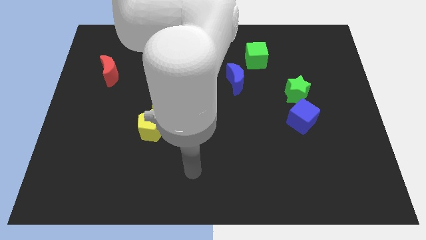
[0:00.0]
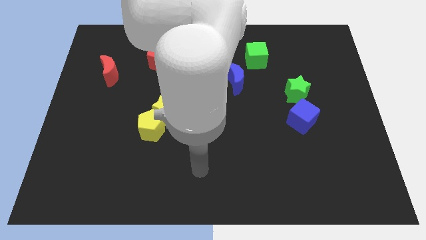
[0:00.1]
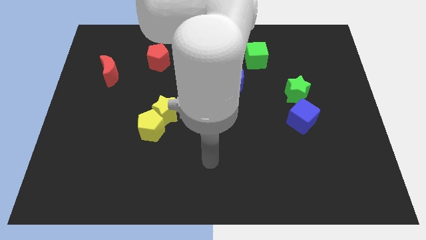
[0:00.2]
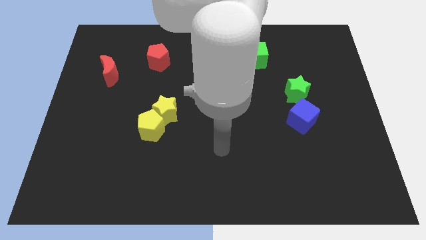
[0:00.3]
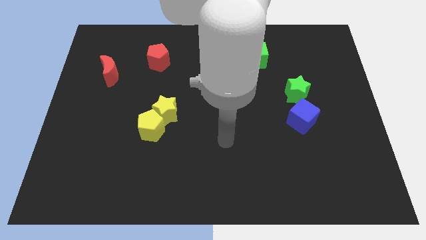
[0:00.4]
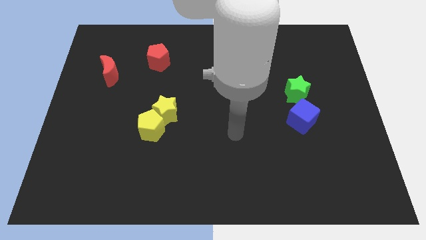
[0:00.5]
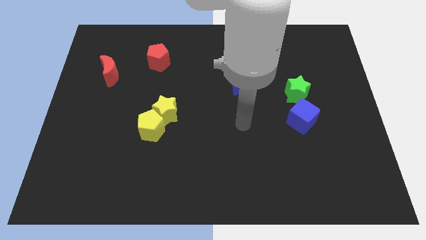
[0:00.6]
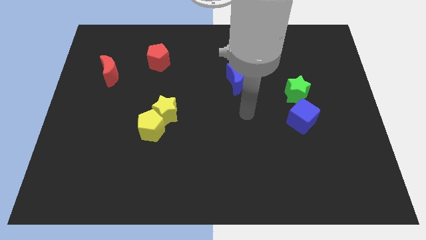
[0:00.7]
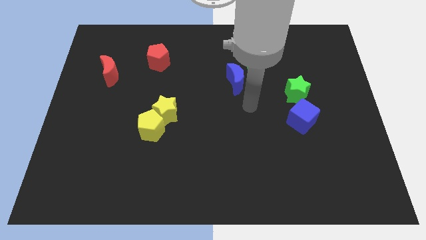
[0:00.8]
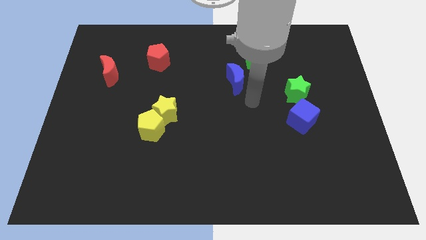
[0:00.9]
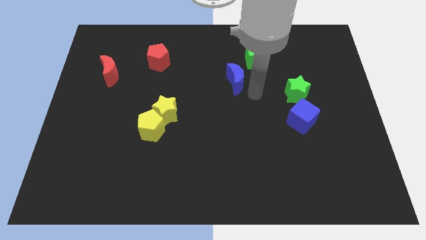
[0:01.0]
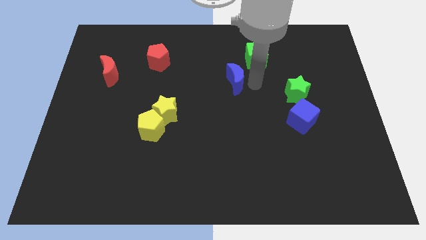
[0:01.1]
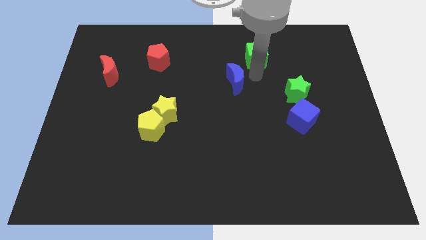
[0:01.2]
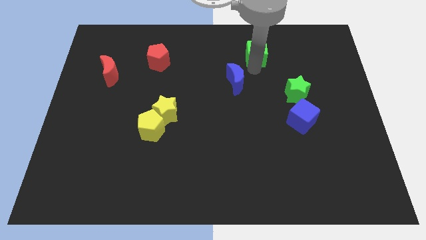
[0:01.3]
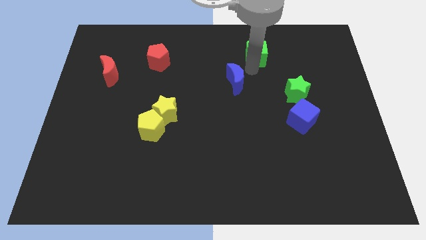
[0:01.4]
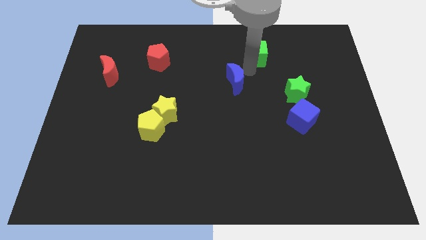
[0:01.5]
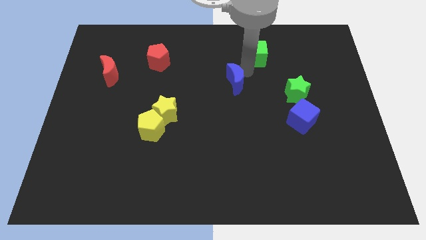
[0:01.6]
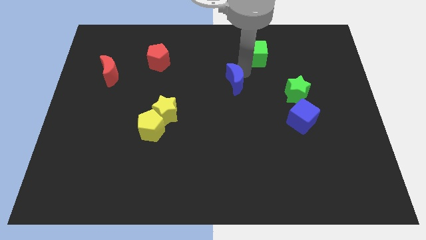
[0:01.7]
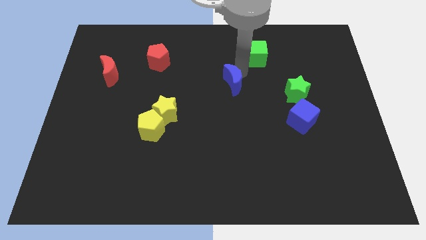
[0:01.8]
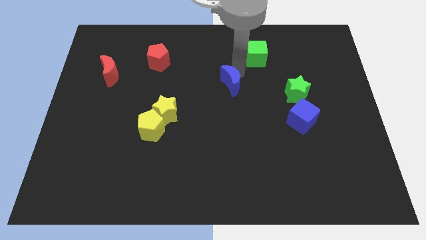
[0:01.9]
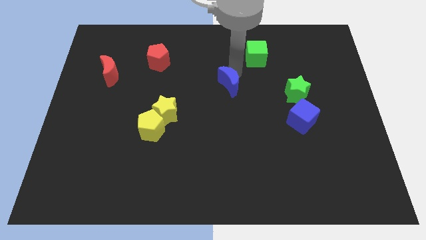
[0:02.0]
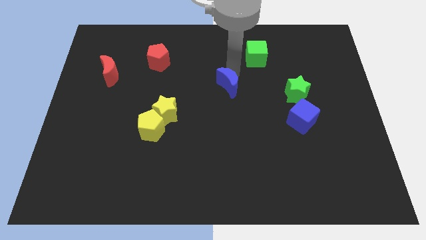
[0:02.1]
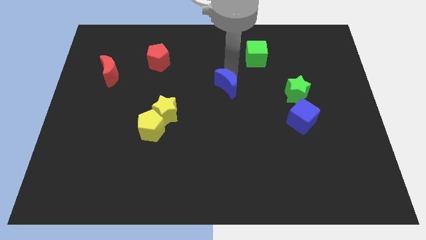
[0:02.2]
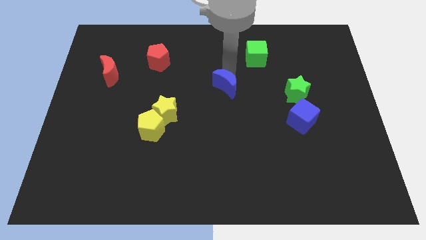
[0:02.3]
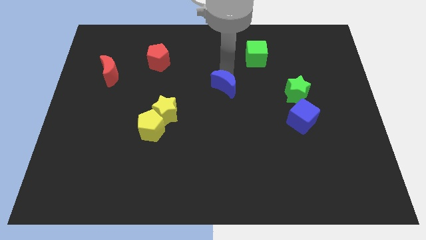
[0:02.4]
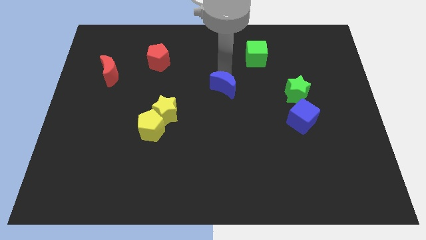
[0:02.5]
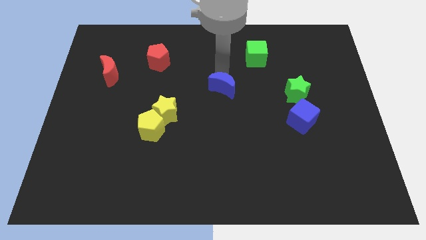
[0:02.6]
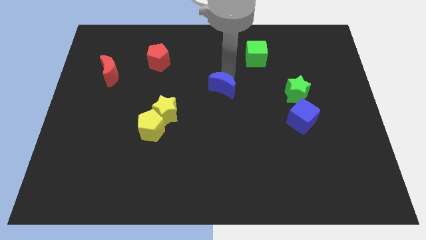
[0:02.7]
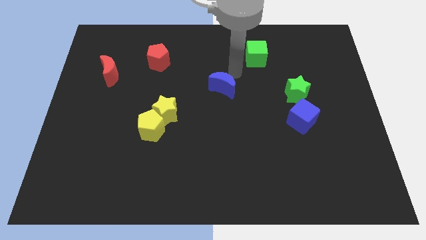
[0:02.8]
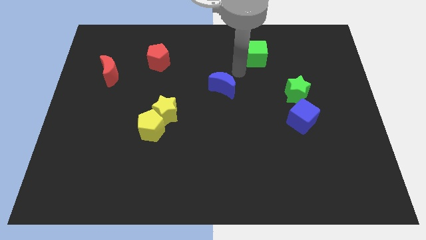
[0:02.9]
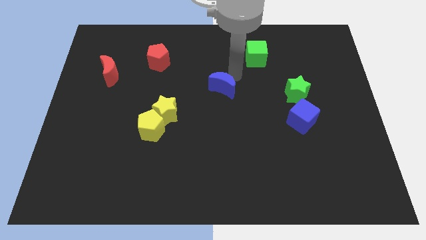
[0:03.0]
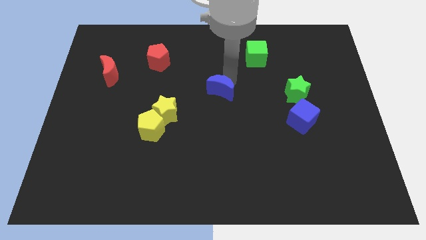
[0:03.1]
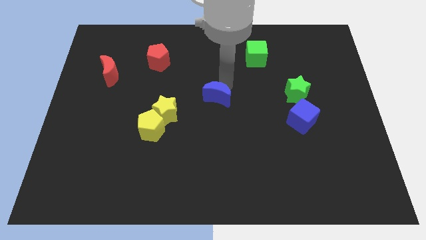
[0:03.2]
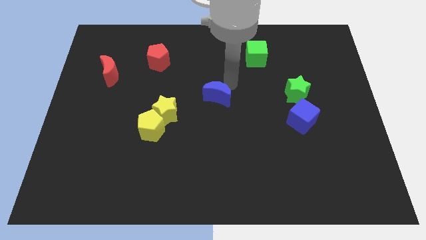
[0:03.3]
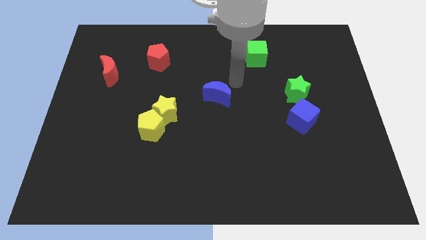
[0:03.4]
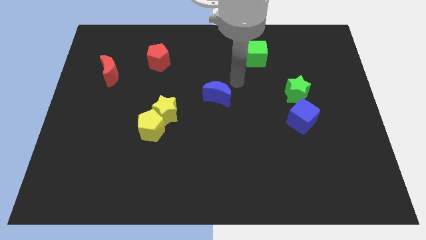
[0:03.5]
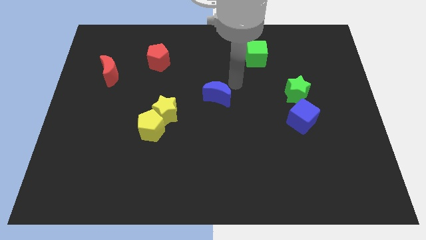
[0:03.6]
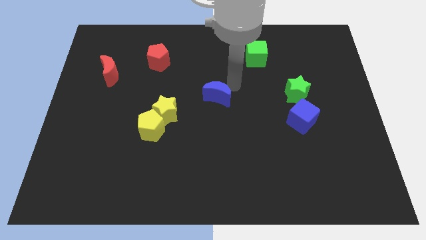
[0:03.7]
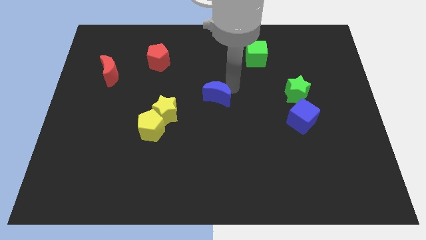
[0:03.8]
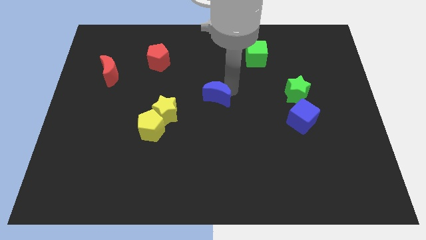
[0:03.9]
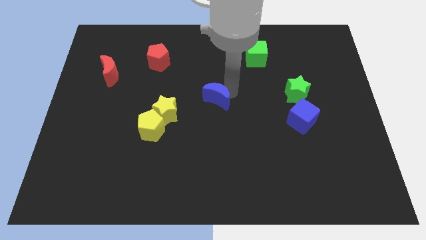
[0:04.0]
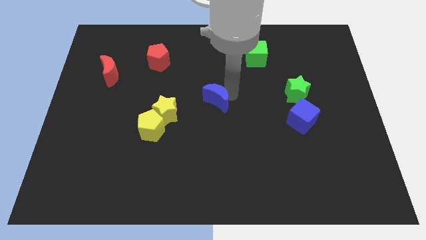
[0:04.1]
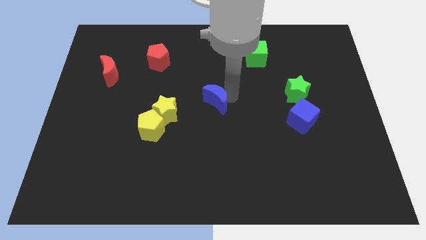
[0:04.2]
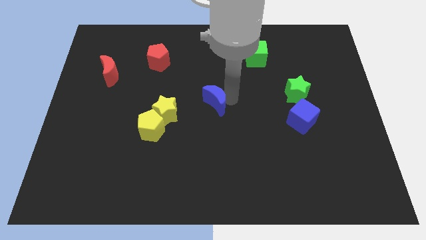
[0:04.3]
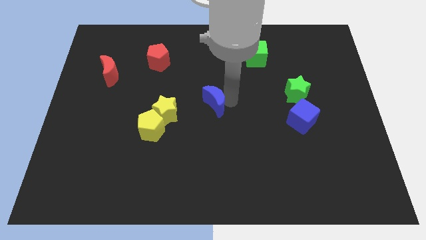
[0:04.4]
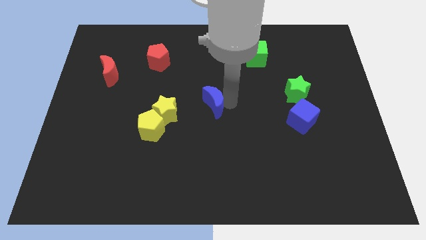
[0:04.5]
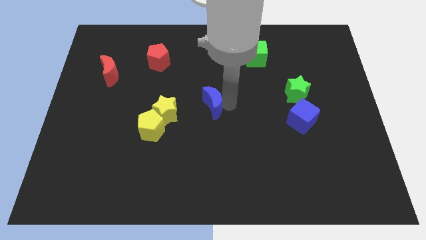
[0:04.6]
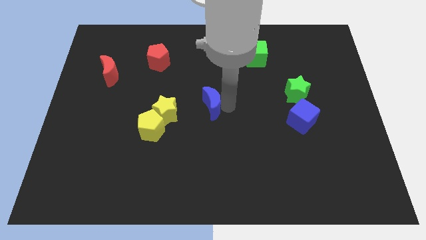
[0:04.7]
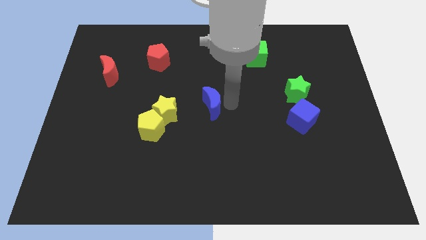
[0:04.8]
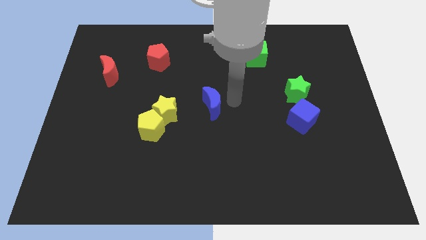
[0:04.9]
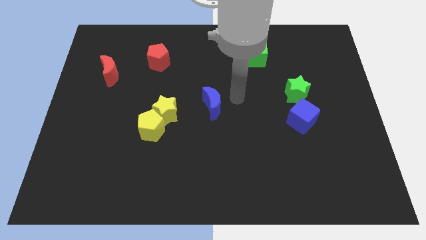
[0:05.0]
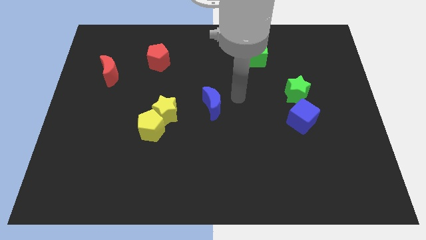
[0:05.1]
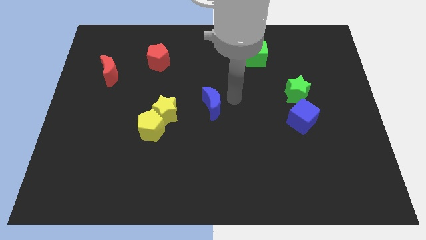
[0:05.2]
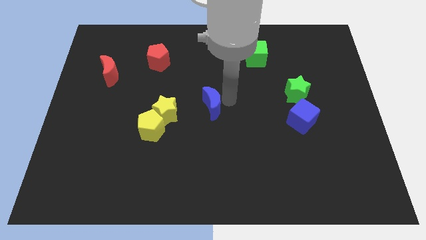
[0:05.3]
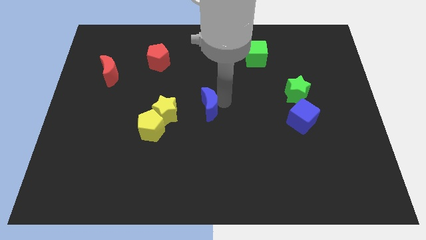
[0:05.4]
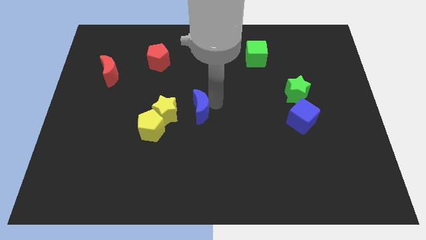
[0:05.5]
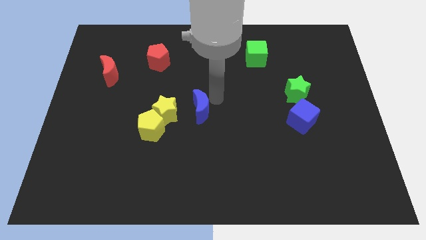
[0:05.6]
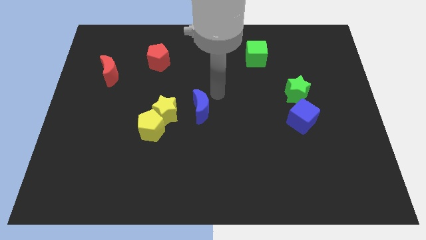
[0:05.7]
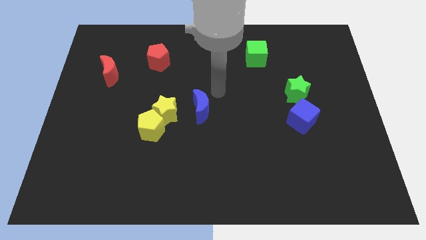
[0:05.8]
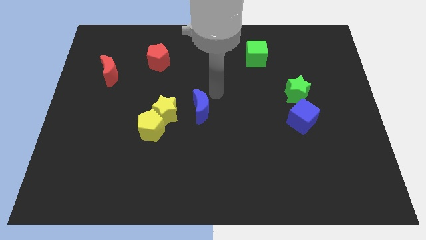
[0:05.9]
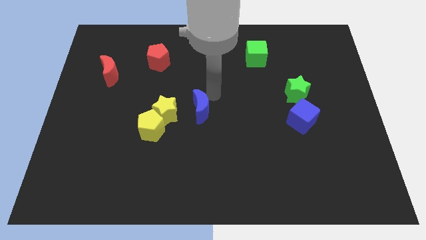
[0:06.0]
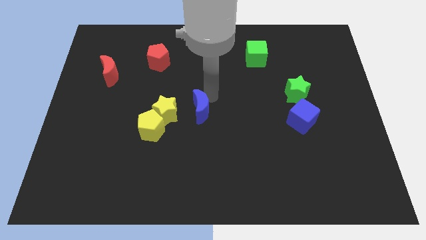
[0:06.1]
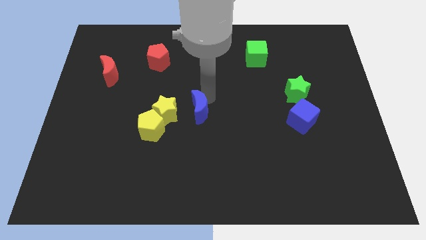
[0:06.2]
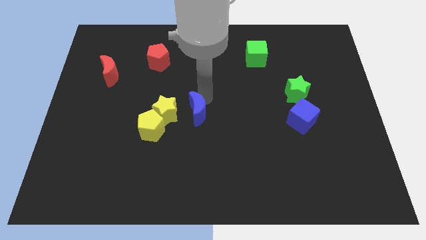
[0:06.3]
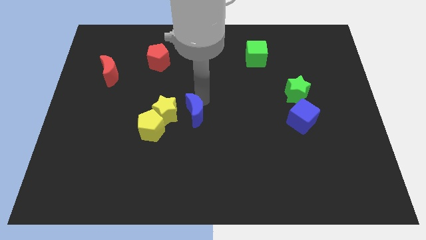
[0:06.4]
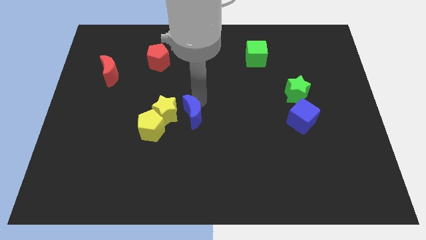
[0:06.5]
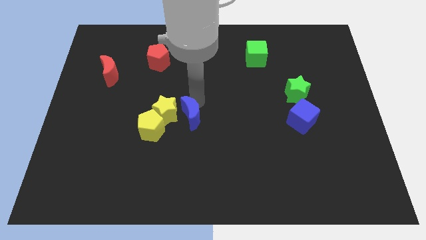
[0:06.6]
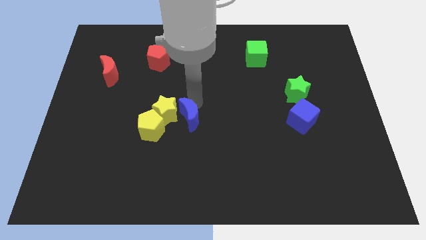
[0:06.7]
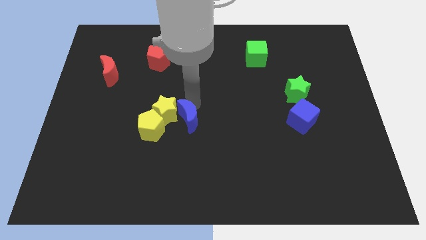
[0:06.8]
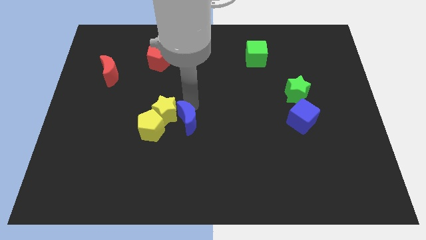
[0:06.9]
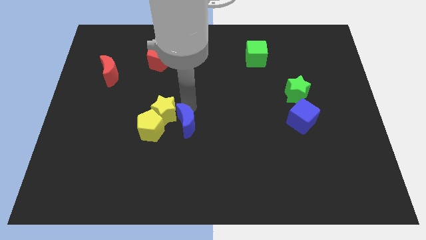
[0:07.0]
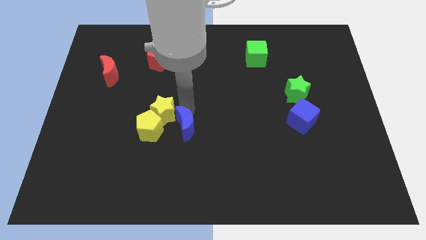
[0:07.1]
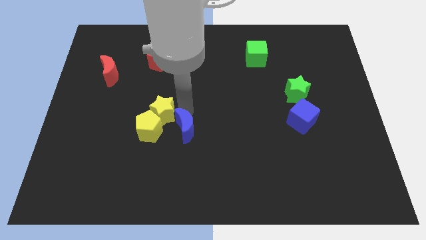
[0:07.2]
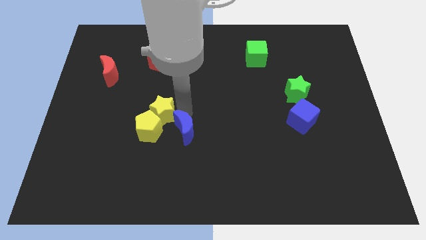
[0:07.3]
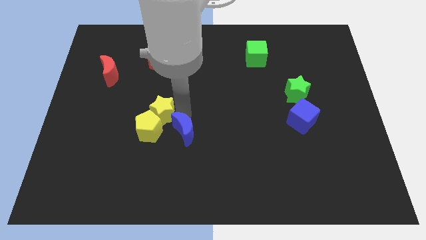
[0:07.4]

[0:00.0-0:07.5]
push the blue moon below the yellow star
